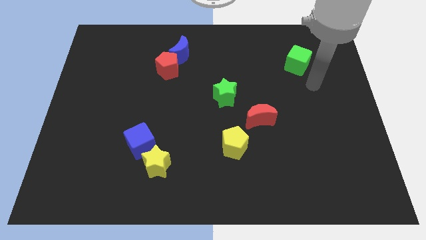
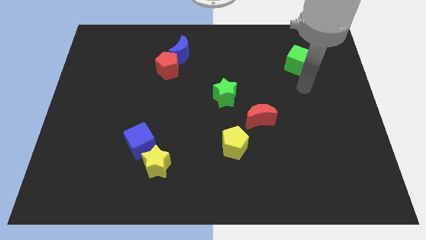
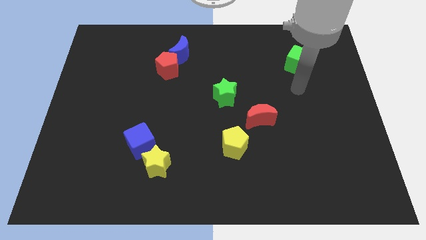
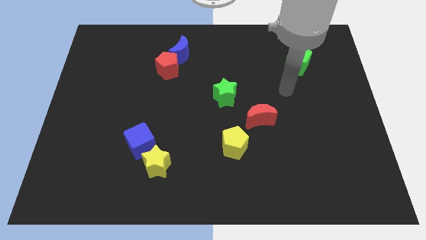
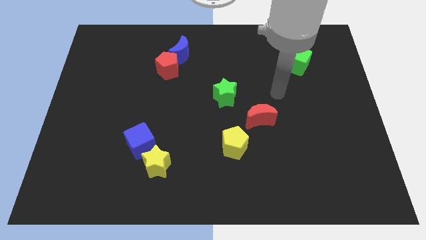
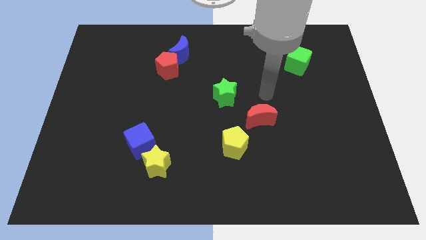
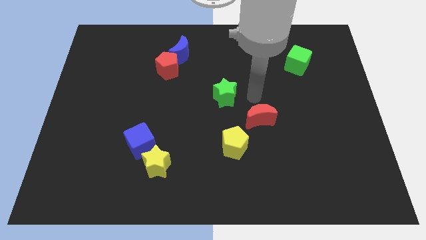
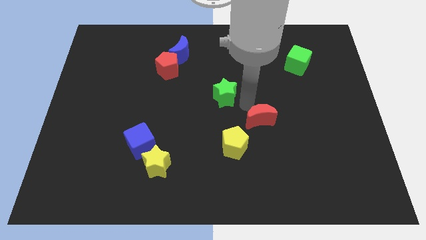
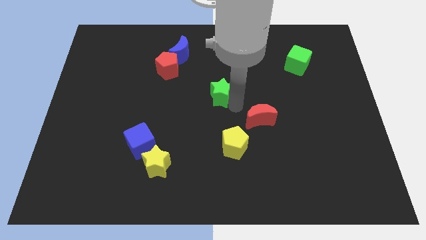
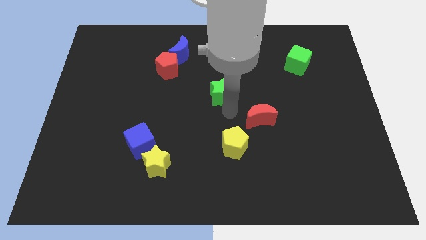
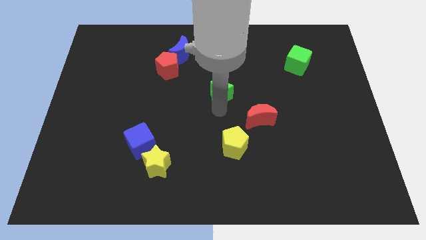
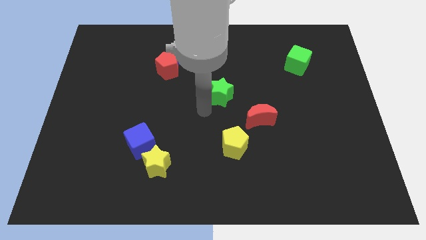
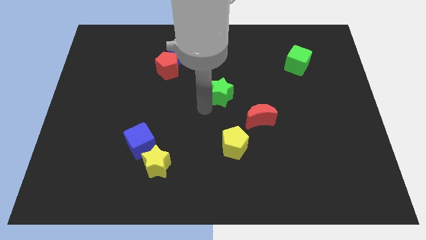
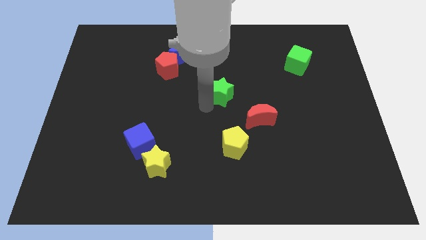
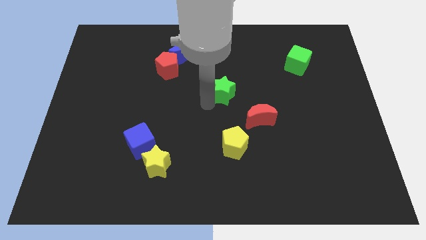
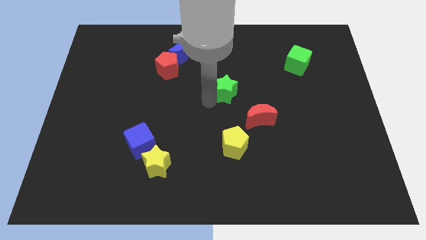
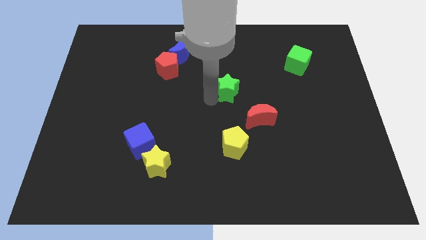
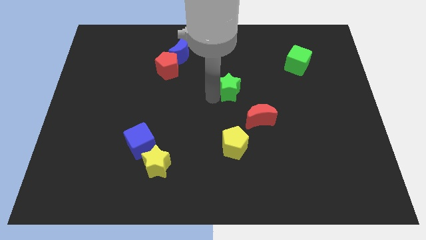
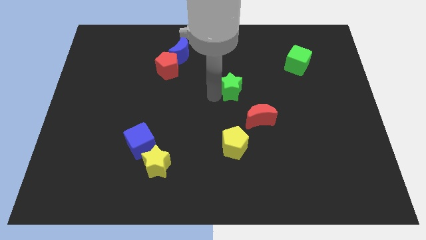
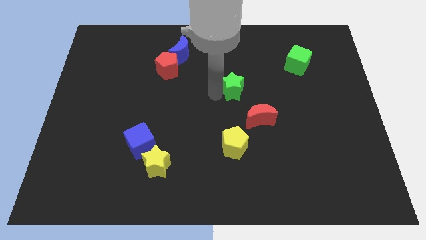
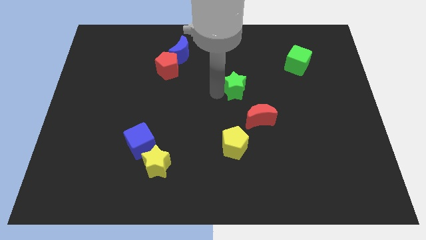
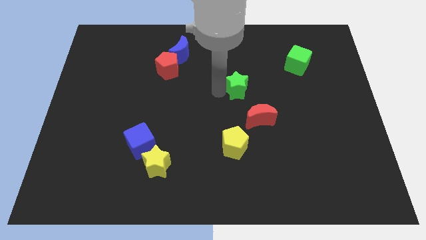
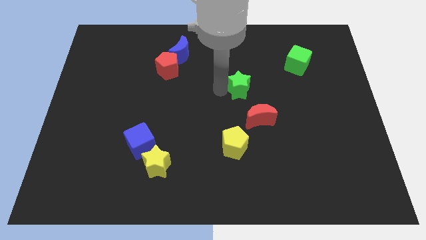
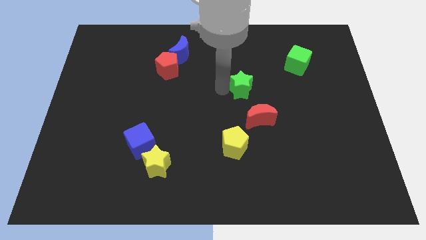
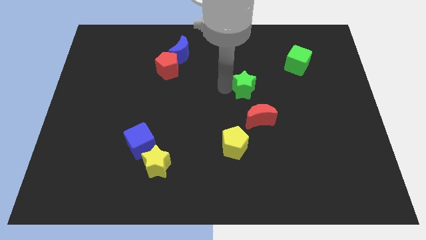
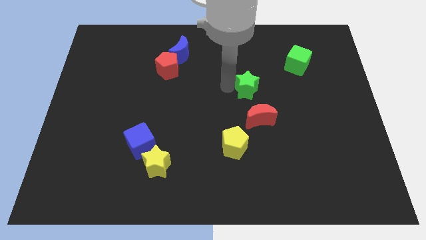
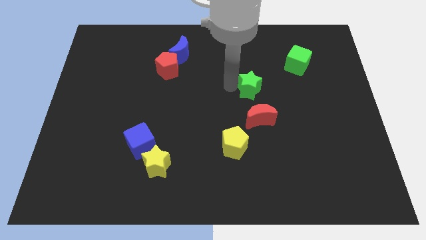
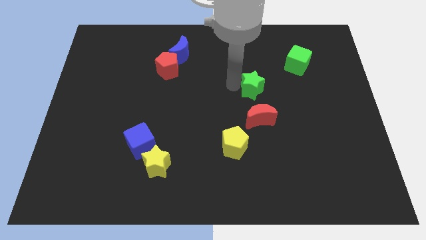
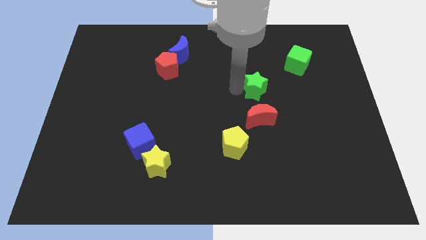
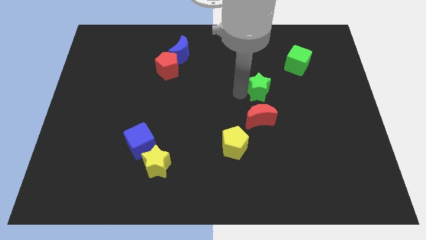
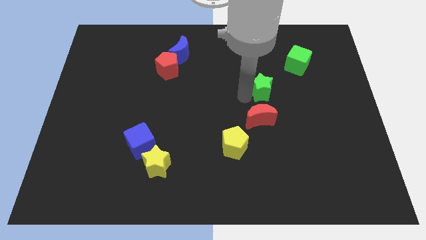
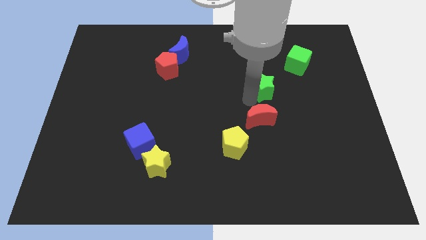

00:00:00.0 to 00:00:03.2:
slightly slide the green star up and then right

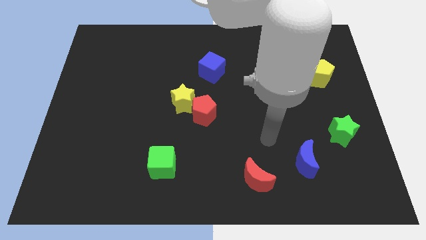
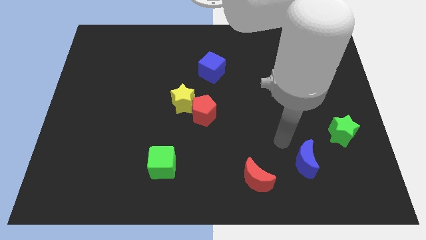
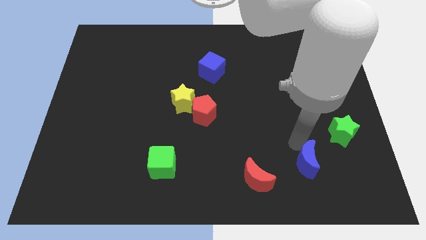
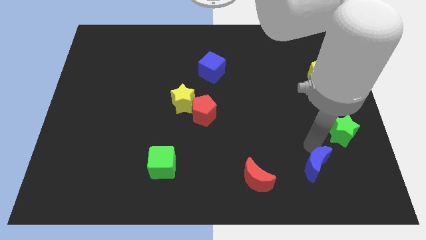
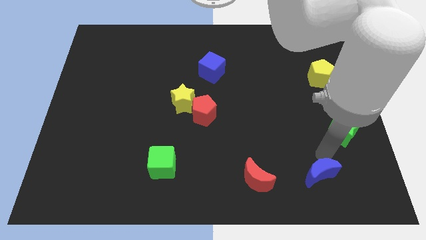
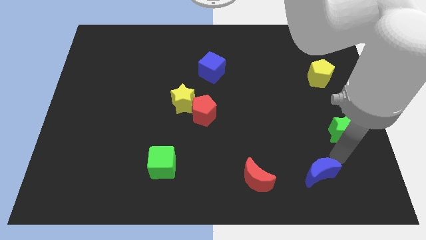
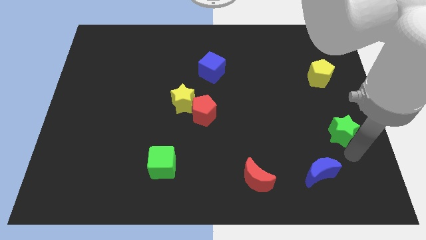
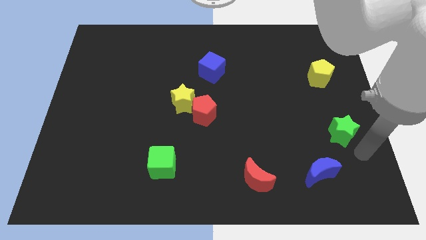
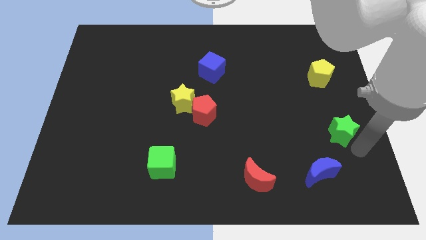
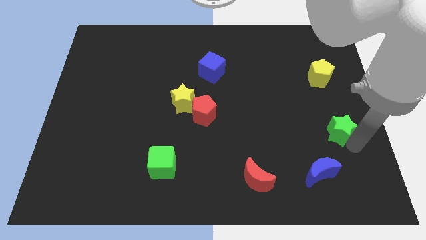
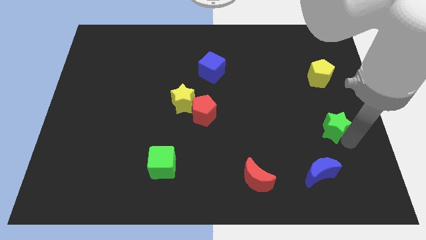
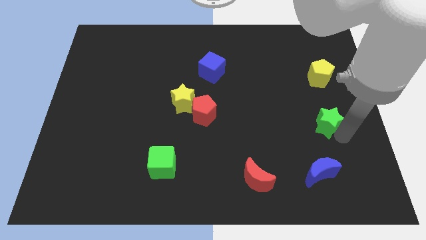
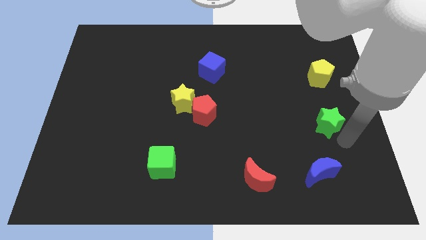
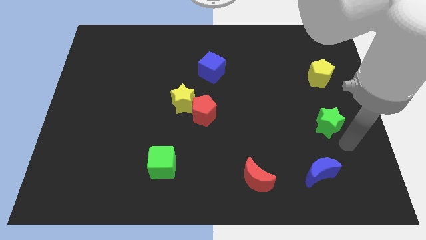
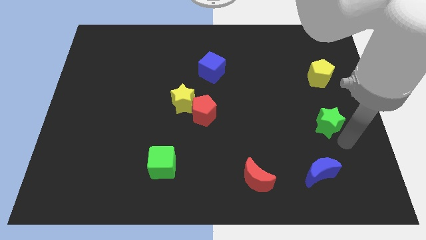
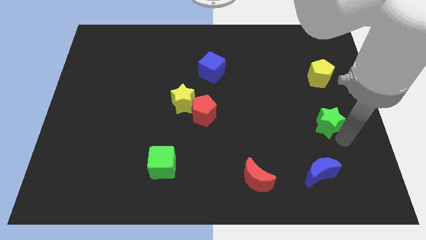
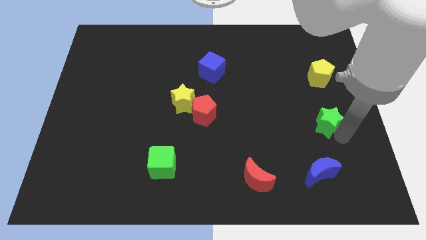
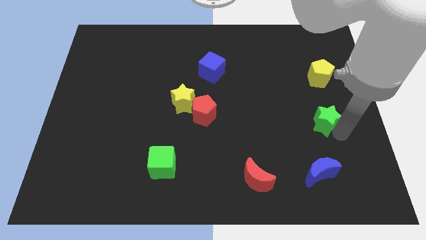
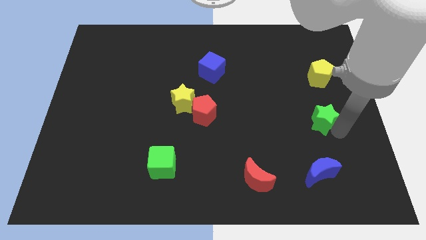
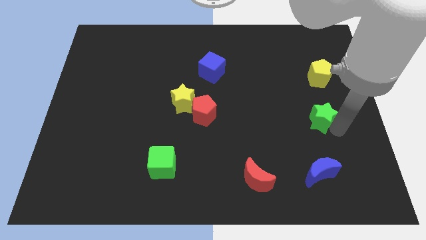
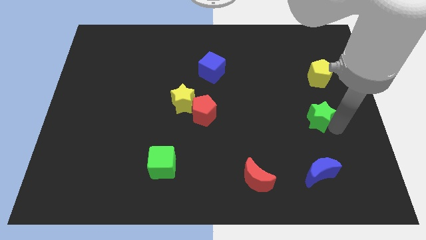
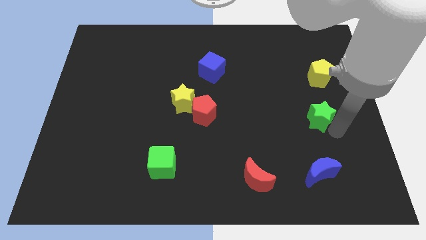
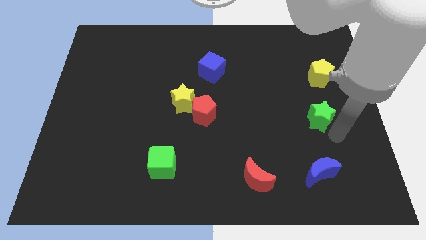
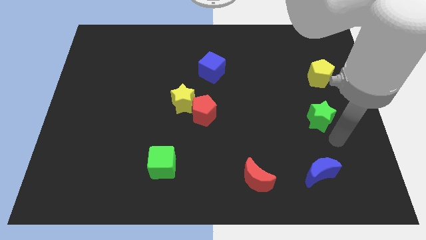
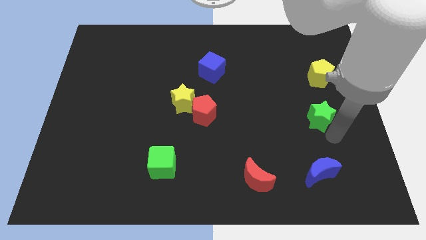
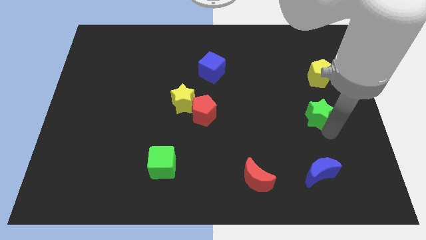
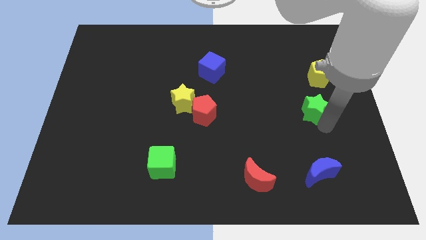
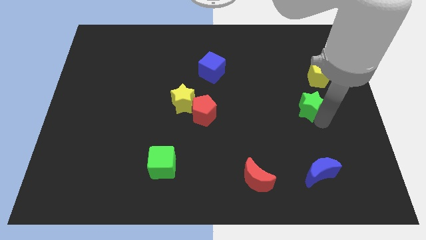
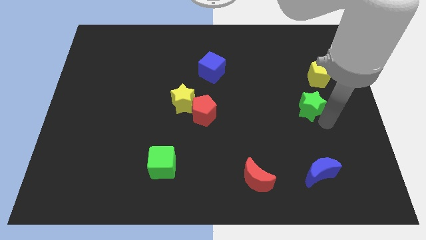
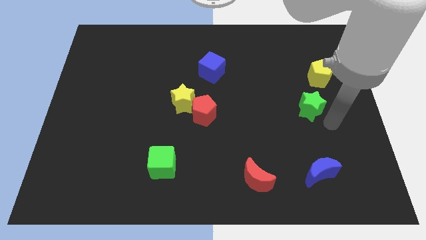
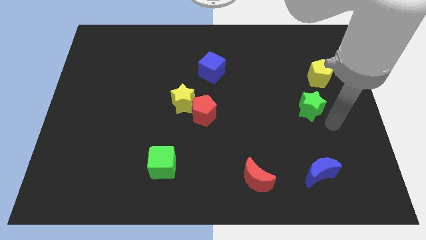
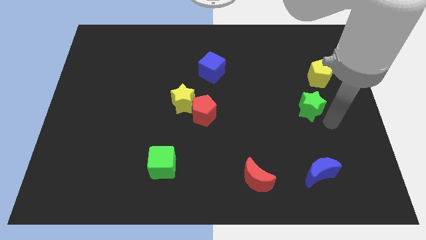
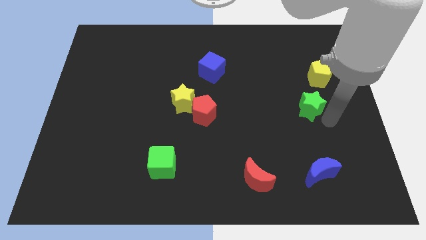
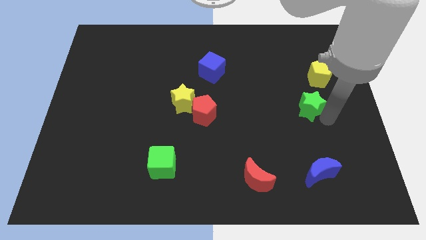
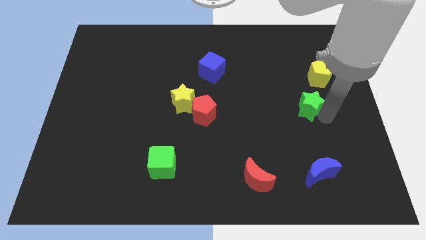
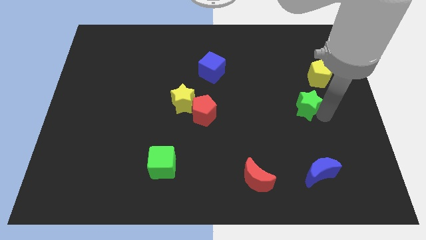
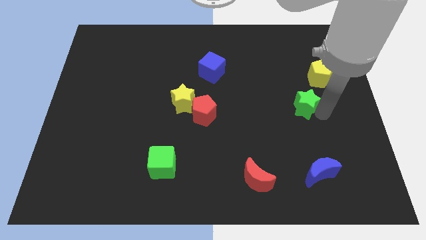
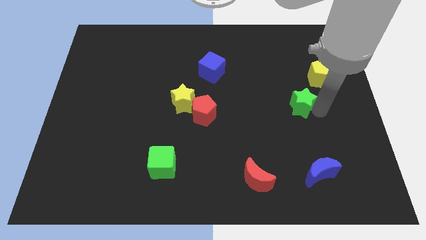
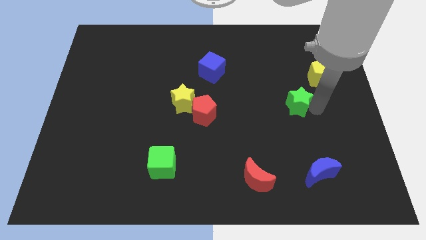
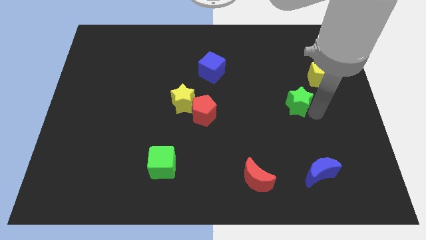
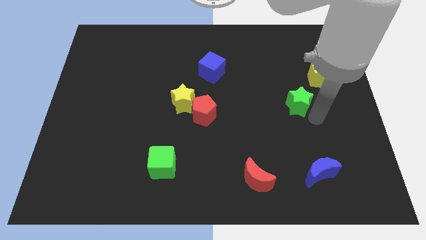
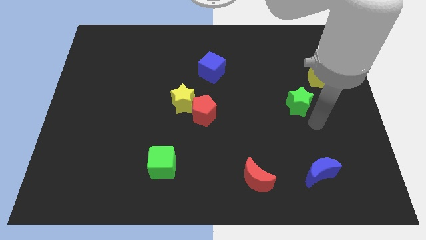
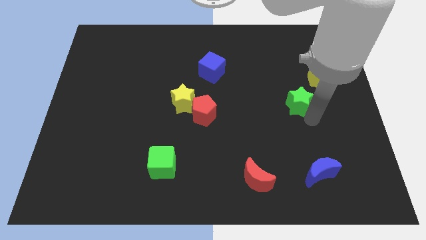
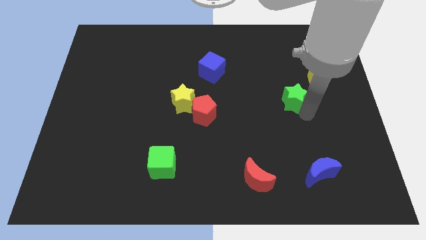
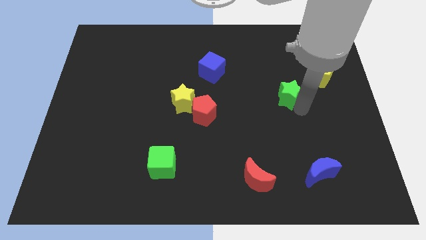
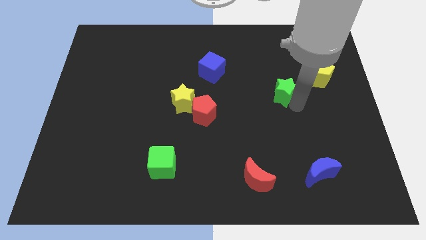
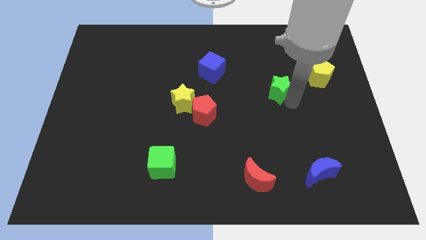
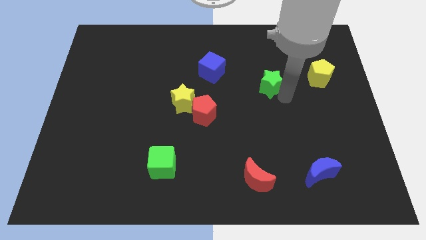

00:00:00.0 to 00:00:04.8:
push the green star diagonally up and left
